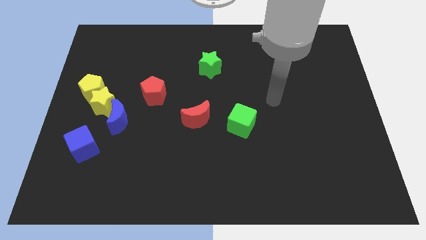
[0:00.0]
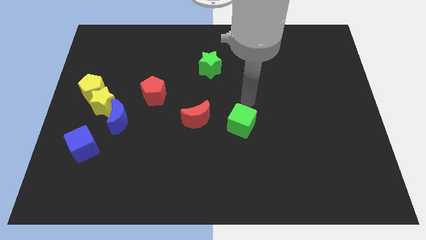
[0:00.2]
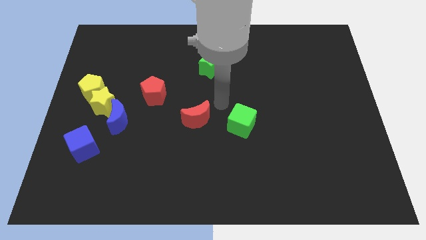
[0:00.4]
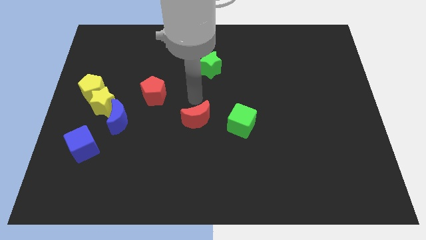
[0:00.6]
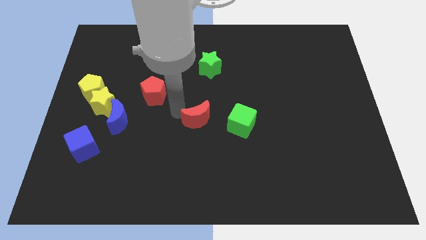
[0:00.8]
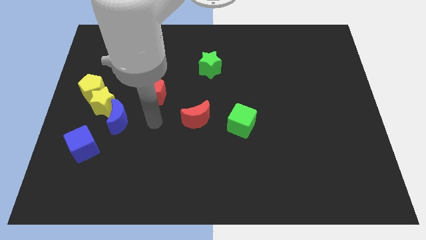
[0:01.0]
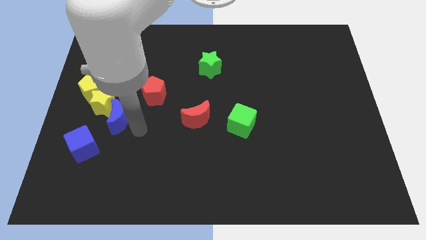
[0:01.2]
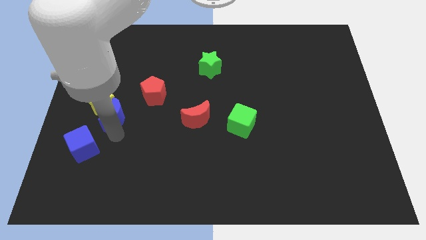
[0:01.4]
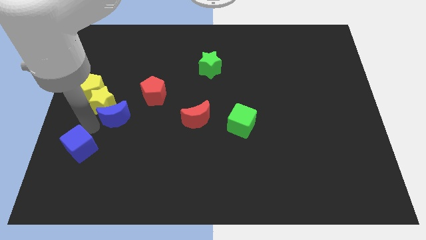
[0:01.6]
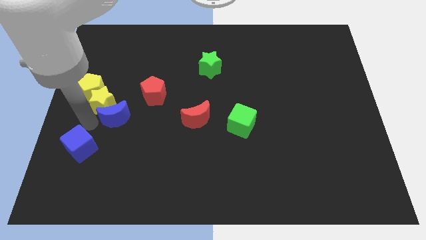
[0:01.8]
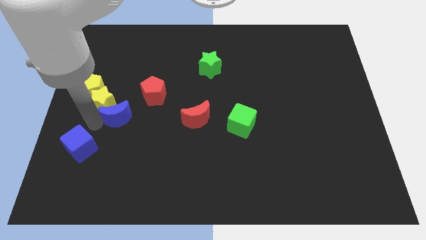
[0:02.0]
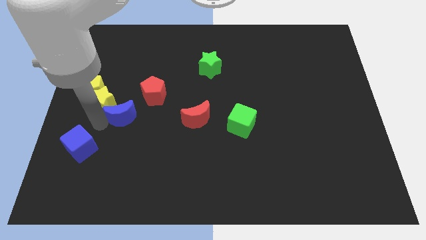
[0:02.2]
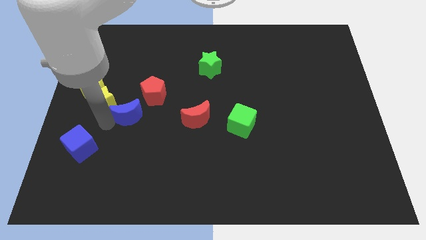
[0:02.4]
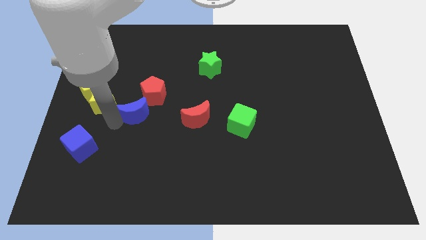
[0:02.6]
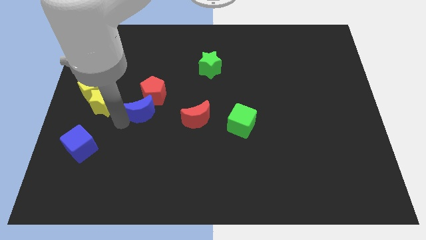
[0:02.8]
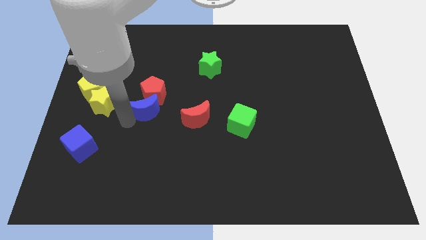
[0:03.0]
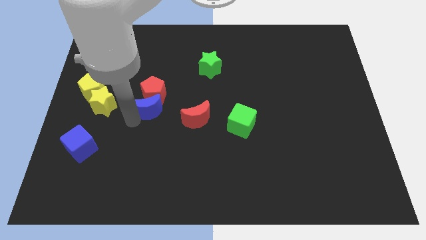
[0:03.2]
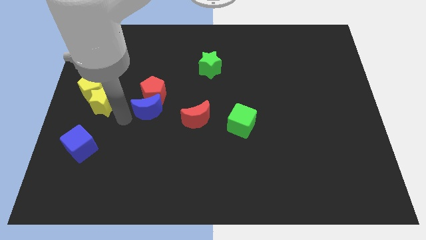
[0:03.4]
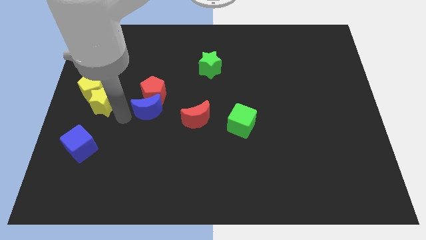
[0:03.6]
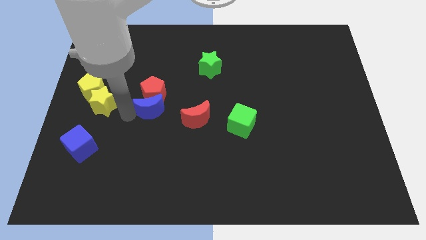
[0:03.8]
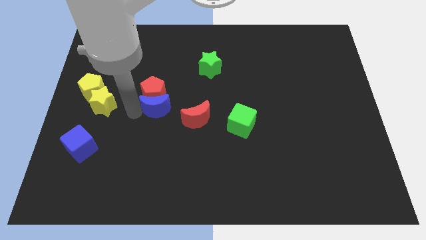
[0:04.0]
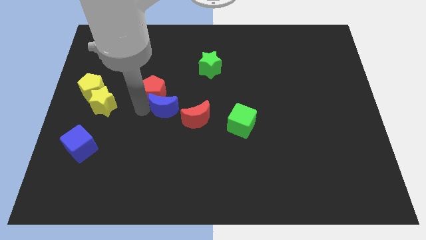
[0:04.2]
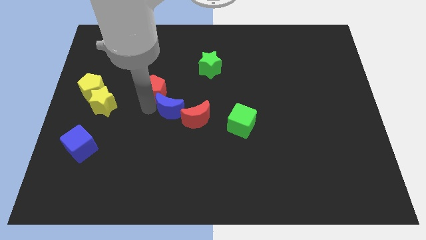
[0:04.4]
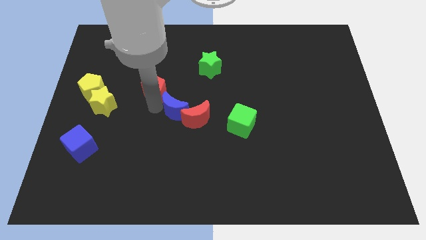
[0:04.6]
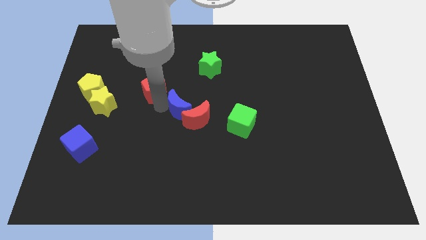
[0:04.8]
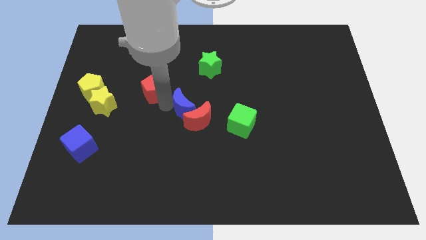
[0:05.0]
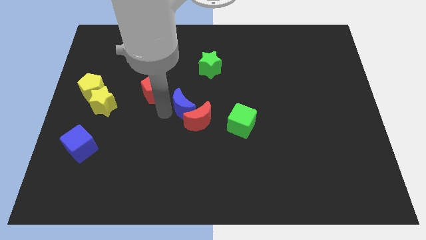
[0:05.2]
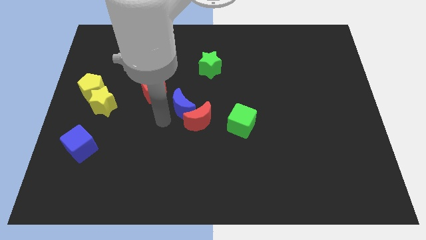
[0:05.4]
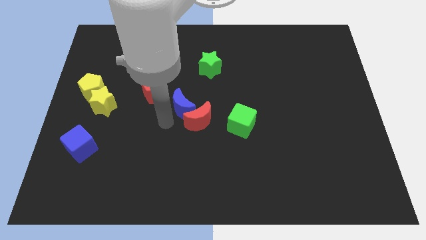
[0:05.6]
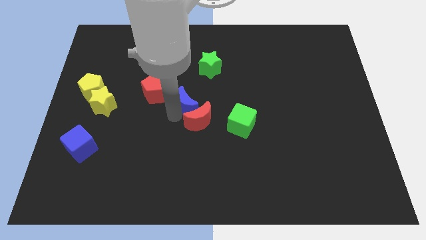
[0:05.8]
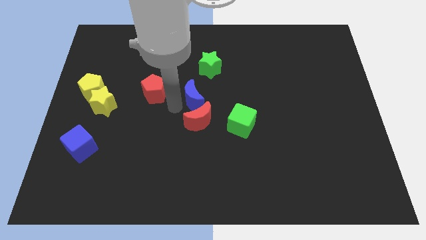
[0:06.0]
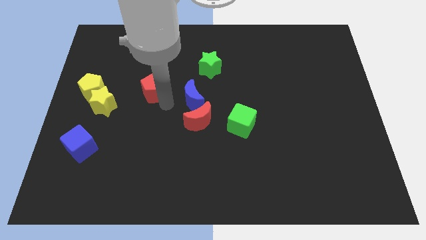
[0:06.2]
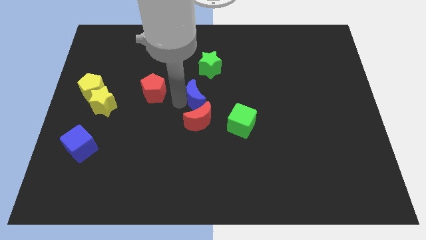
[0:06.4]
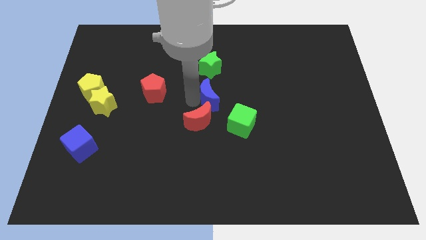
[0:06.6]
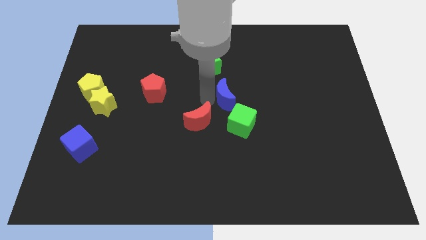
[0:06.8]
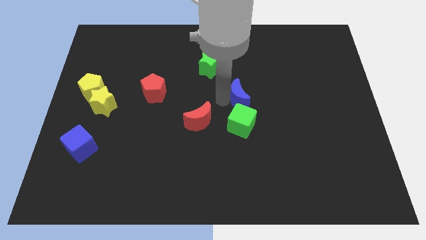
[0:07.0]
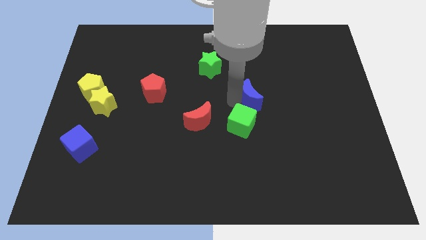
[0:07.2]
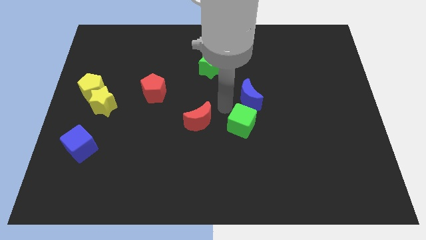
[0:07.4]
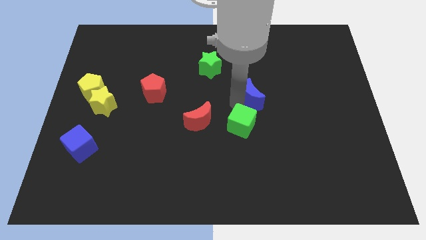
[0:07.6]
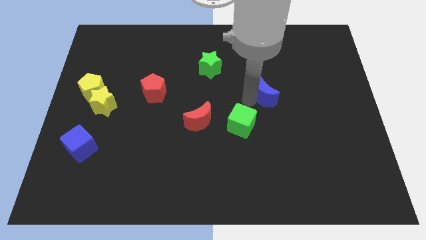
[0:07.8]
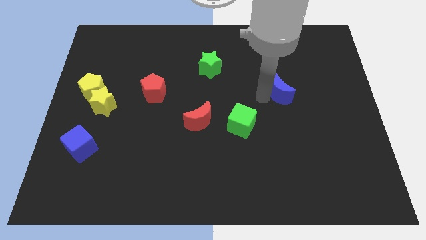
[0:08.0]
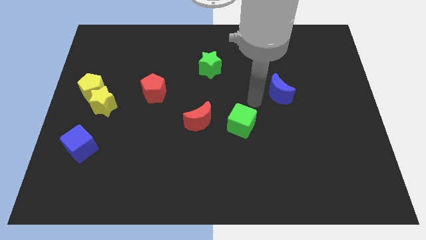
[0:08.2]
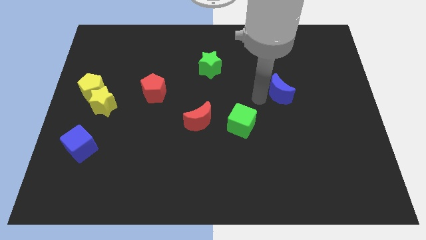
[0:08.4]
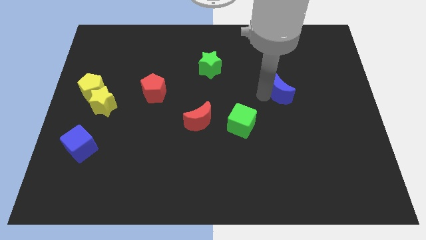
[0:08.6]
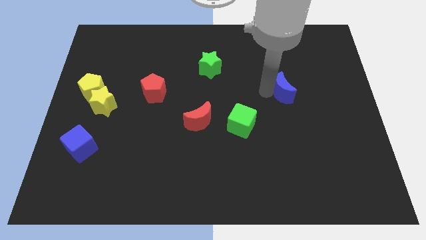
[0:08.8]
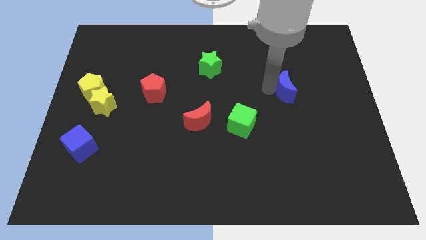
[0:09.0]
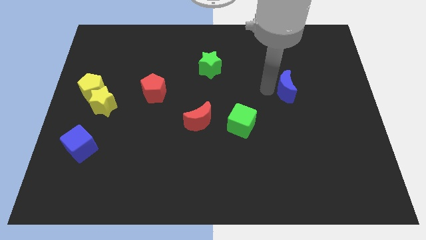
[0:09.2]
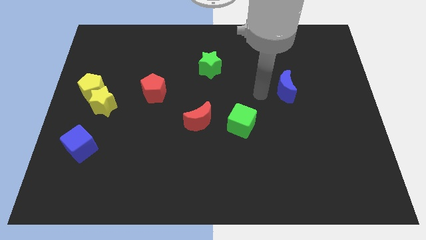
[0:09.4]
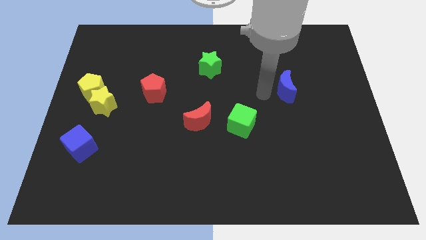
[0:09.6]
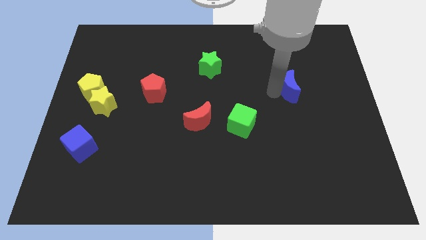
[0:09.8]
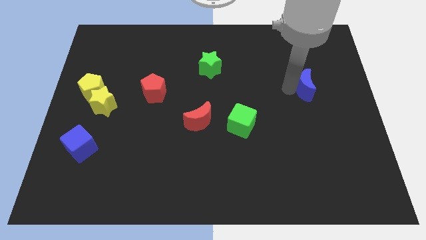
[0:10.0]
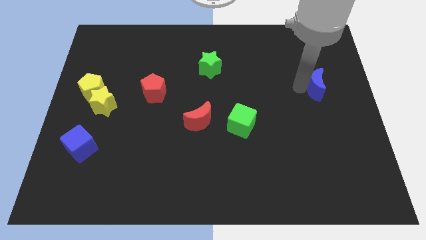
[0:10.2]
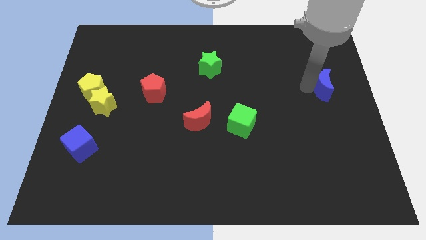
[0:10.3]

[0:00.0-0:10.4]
slide the blue moon to the right side

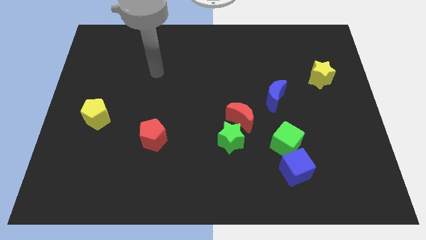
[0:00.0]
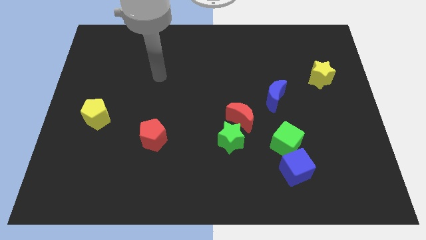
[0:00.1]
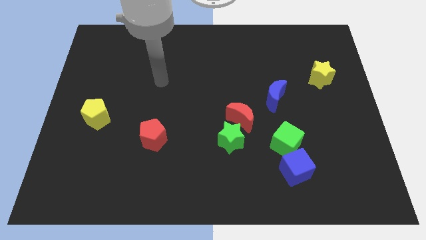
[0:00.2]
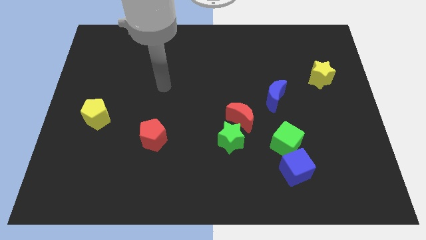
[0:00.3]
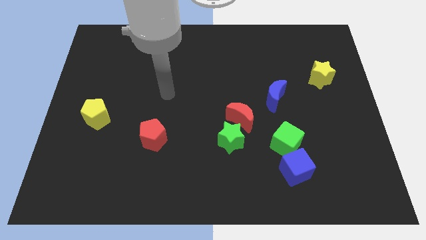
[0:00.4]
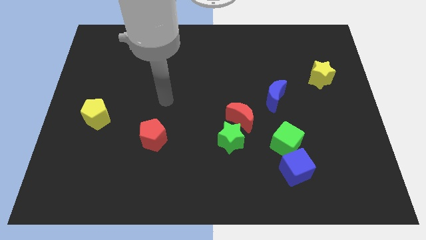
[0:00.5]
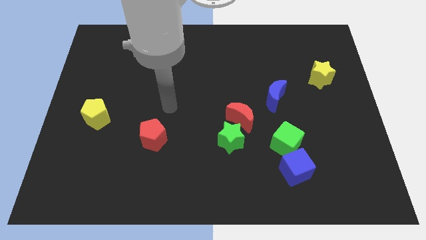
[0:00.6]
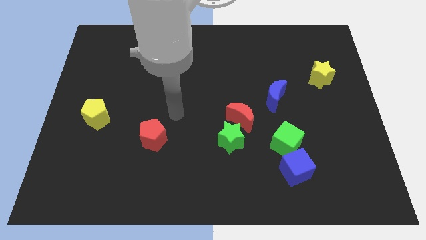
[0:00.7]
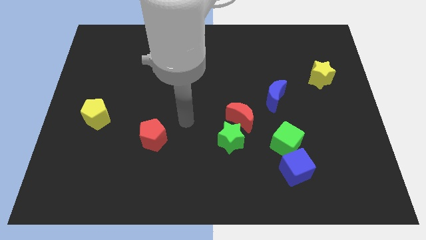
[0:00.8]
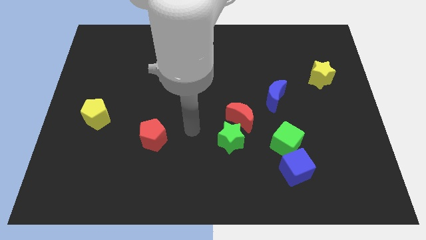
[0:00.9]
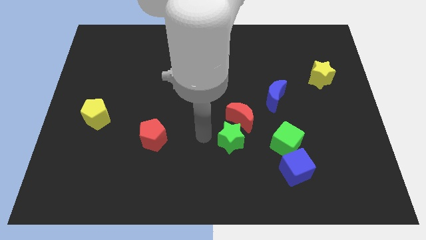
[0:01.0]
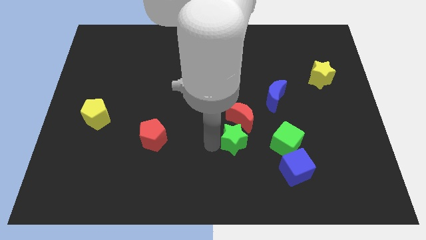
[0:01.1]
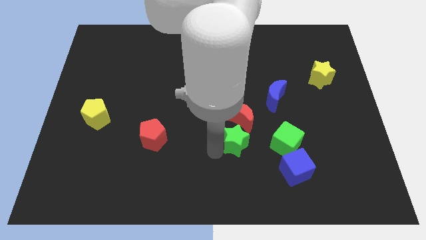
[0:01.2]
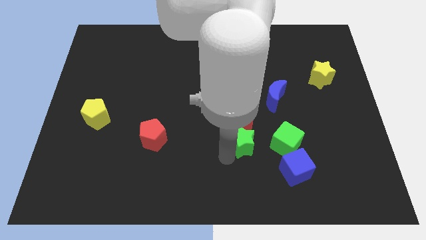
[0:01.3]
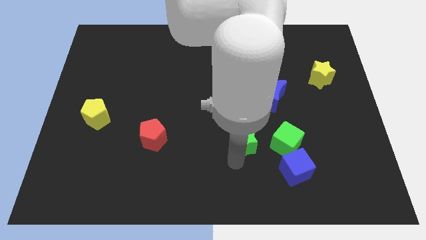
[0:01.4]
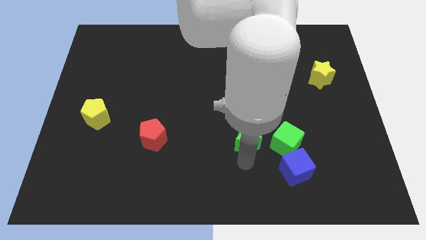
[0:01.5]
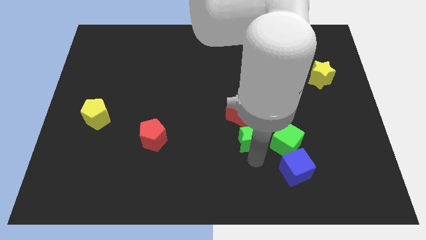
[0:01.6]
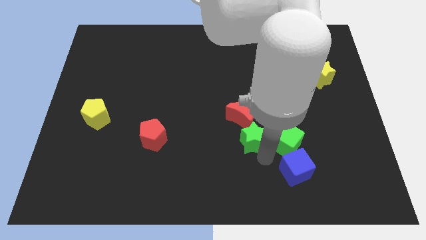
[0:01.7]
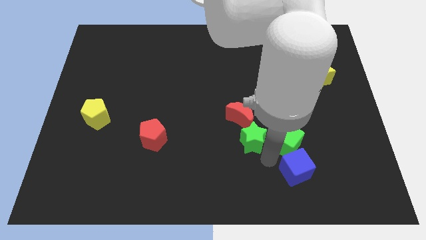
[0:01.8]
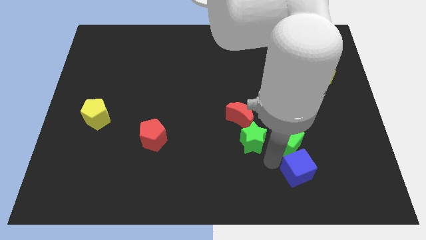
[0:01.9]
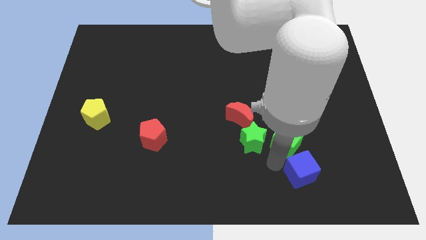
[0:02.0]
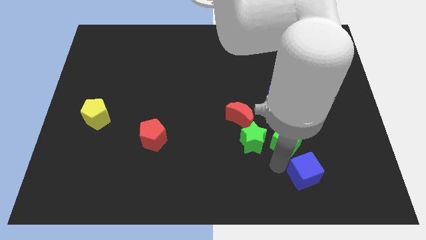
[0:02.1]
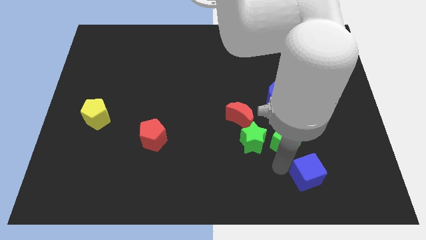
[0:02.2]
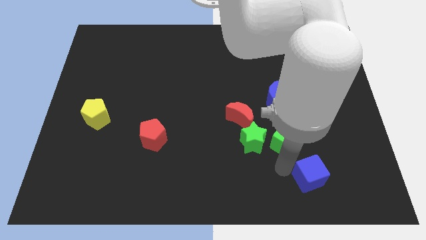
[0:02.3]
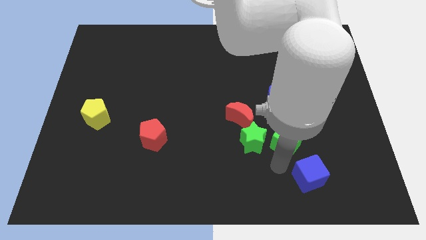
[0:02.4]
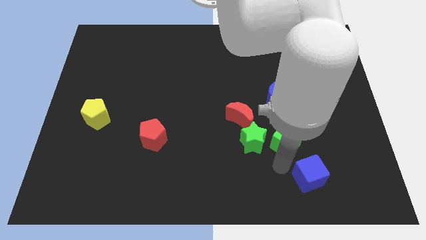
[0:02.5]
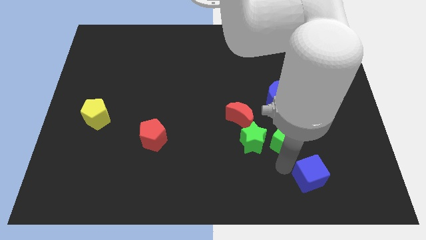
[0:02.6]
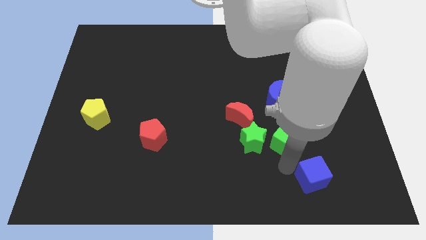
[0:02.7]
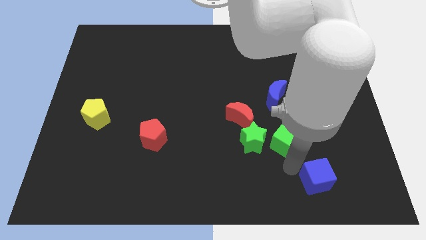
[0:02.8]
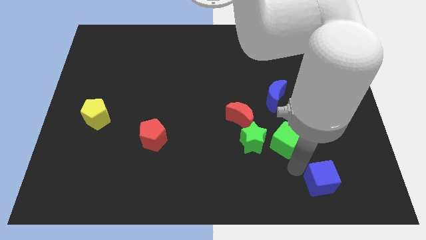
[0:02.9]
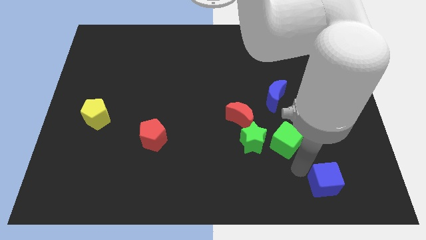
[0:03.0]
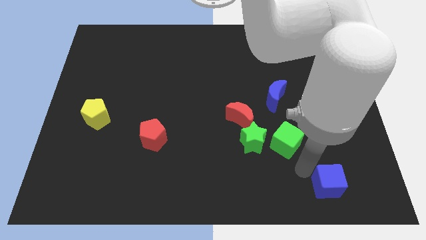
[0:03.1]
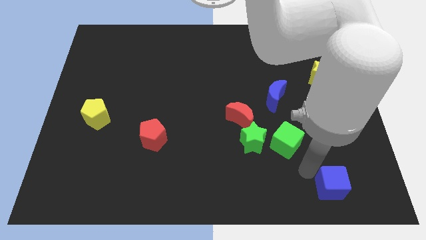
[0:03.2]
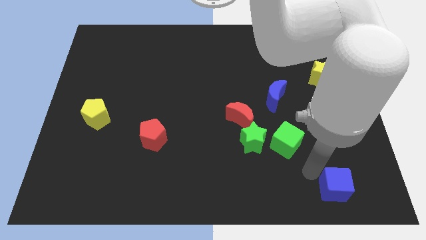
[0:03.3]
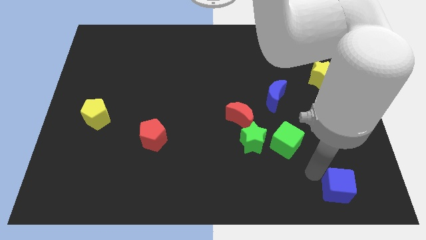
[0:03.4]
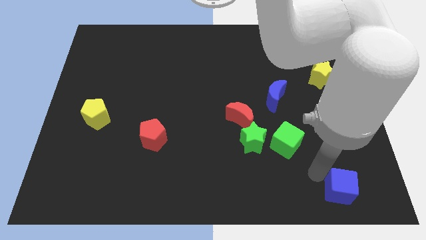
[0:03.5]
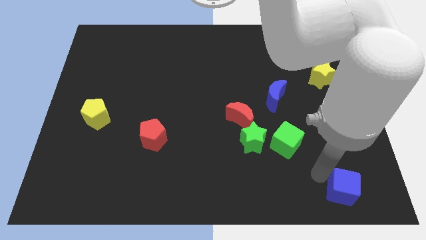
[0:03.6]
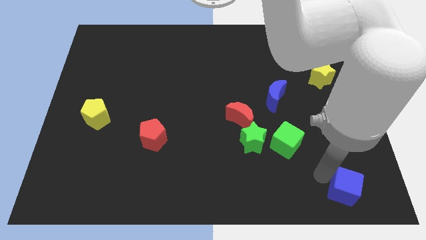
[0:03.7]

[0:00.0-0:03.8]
slide the blue cube to the bottom right corner
